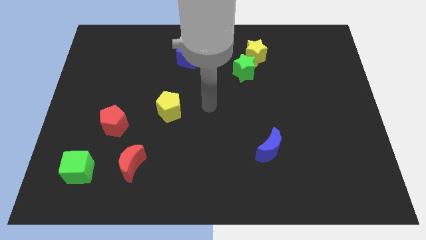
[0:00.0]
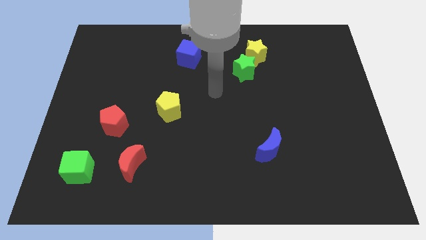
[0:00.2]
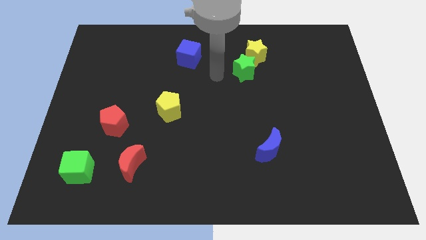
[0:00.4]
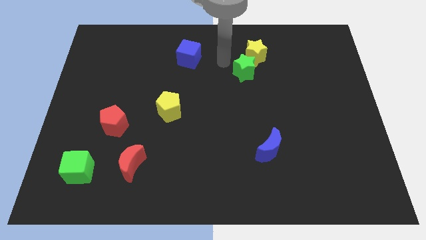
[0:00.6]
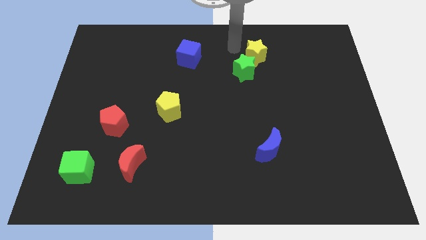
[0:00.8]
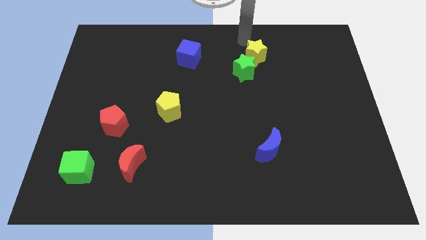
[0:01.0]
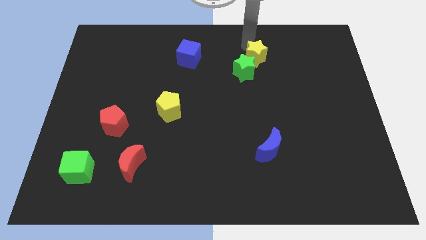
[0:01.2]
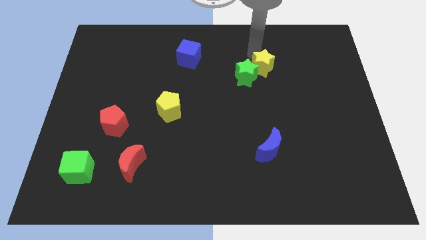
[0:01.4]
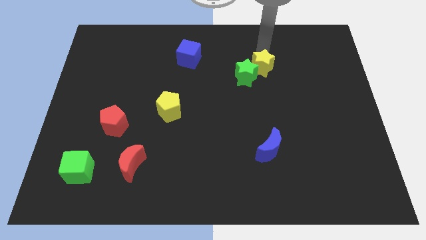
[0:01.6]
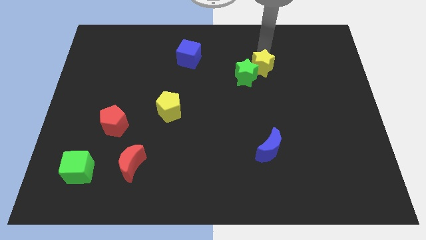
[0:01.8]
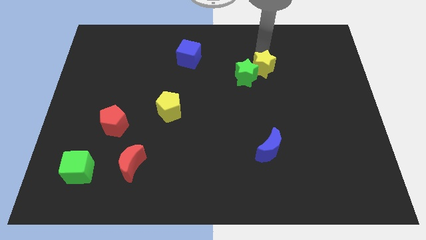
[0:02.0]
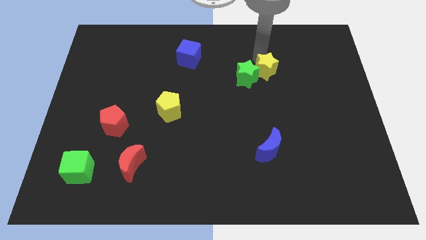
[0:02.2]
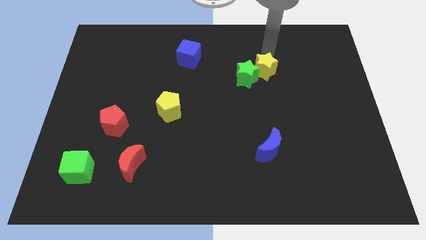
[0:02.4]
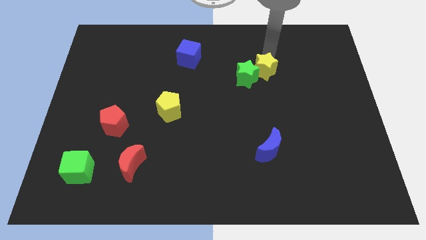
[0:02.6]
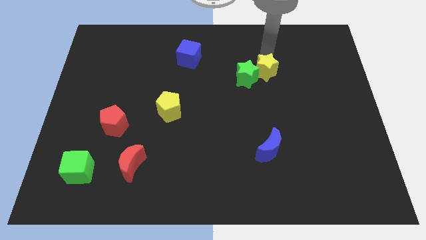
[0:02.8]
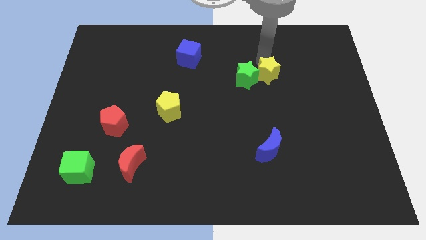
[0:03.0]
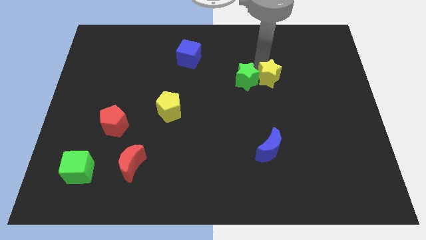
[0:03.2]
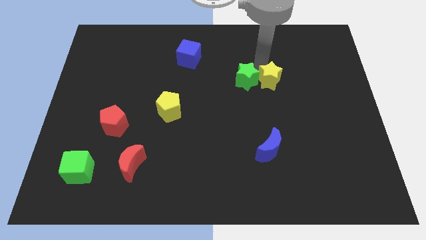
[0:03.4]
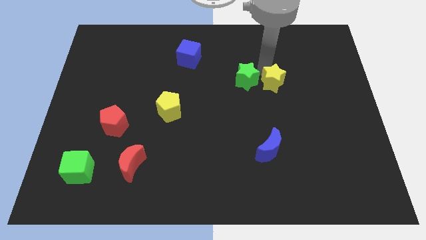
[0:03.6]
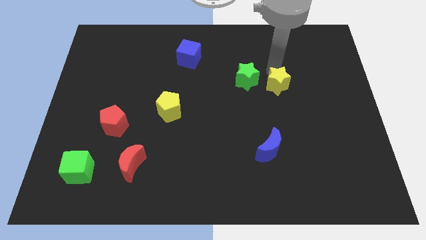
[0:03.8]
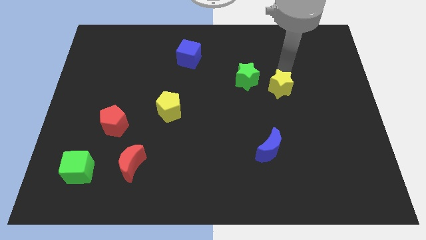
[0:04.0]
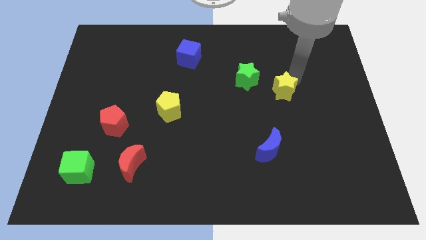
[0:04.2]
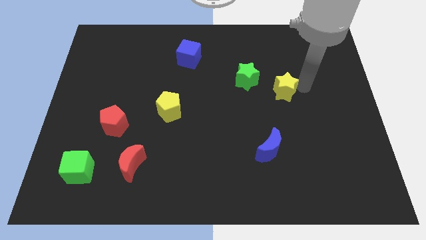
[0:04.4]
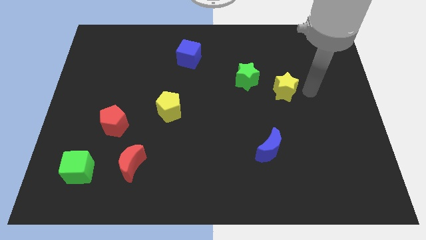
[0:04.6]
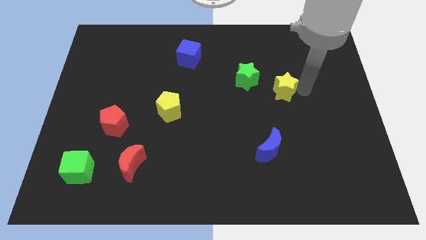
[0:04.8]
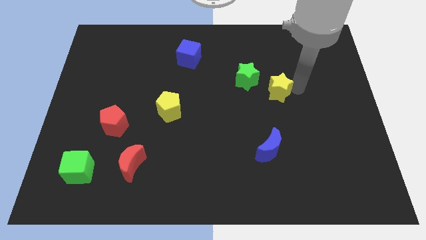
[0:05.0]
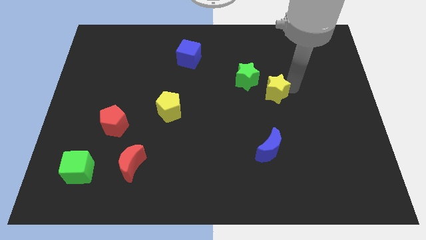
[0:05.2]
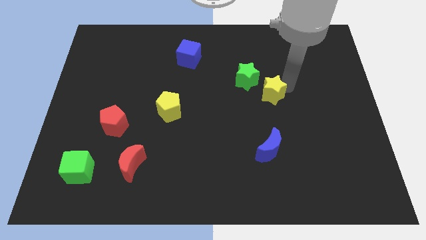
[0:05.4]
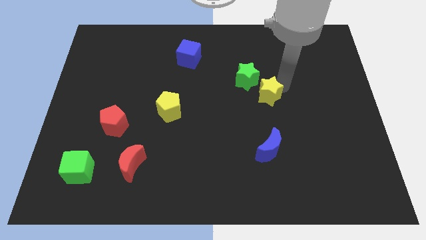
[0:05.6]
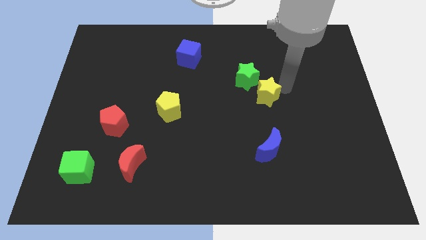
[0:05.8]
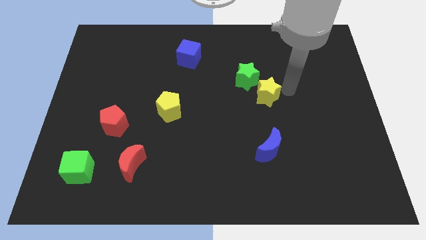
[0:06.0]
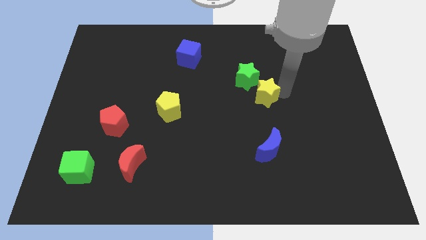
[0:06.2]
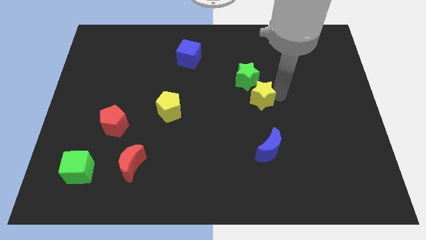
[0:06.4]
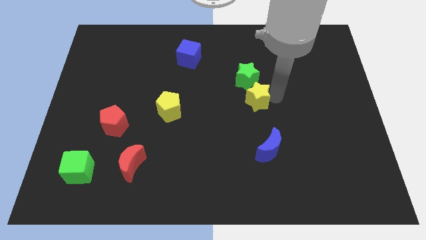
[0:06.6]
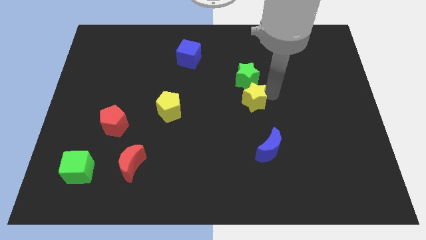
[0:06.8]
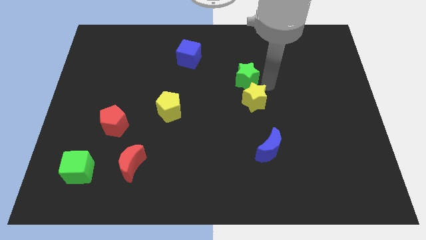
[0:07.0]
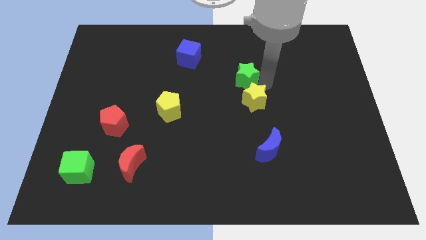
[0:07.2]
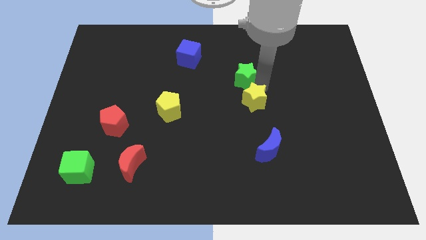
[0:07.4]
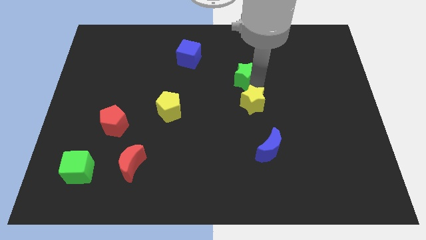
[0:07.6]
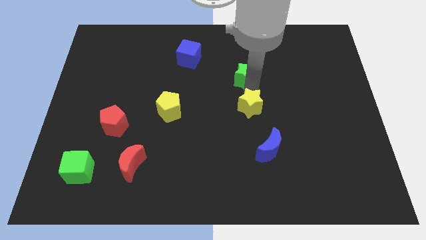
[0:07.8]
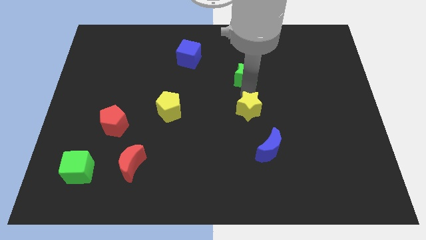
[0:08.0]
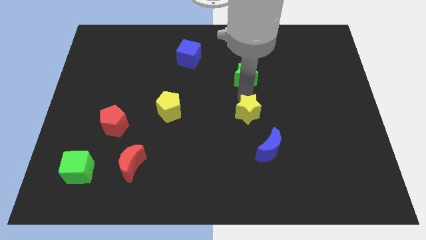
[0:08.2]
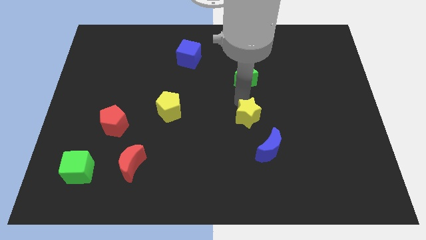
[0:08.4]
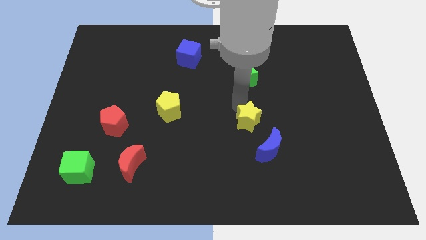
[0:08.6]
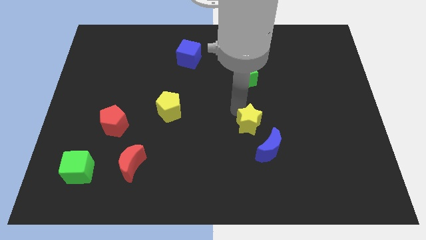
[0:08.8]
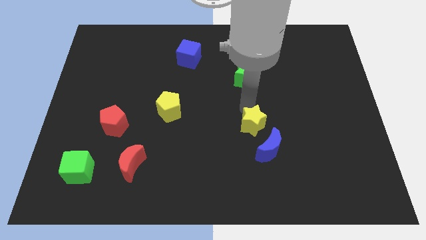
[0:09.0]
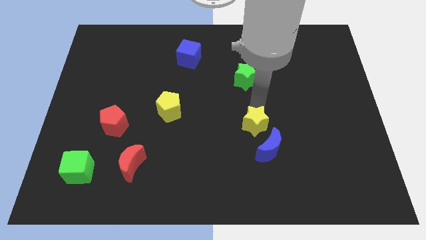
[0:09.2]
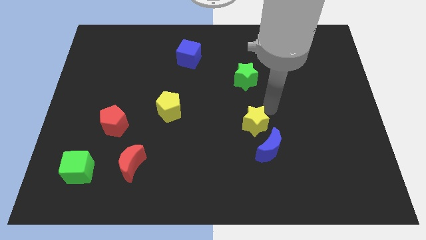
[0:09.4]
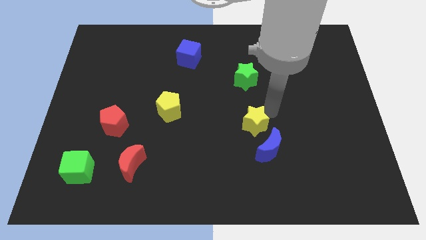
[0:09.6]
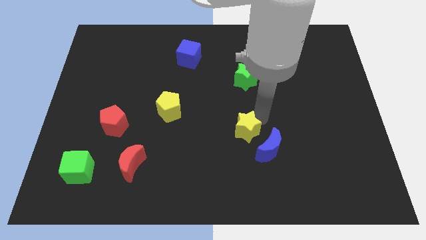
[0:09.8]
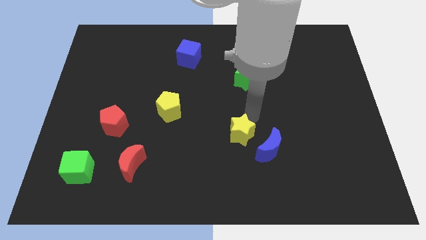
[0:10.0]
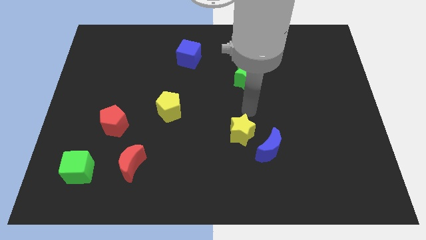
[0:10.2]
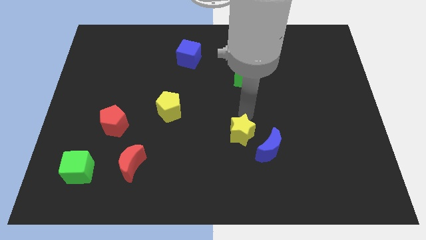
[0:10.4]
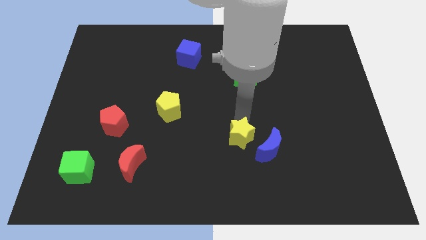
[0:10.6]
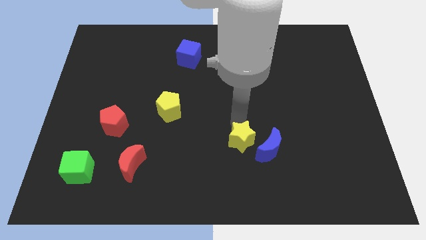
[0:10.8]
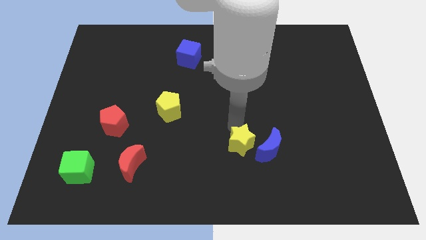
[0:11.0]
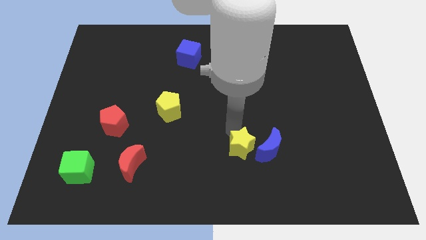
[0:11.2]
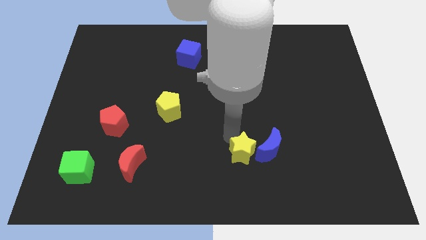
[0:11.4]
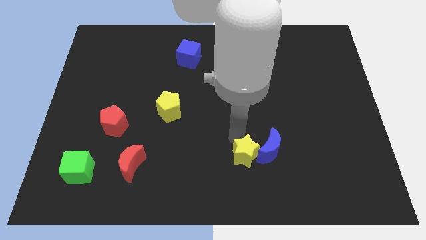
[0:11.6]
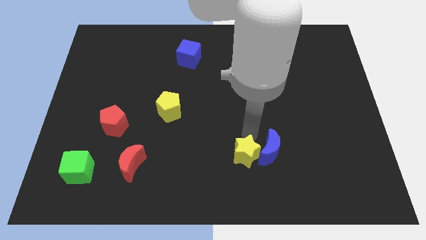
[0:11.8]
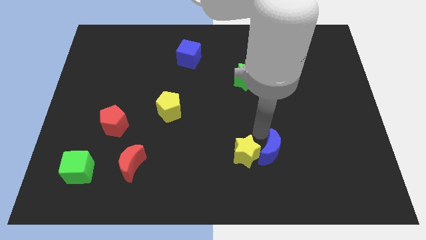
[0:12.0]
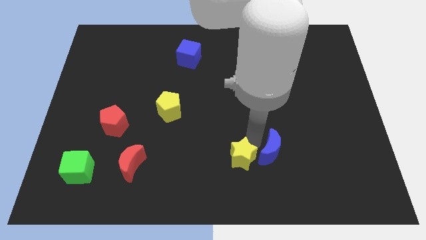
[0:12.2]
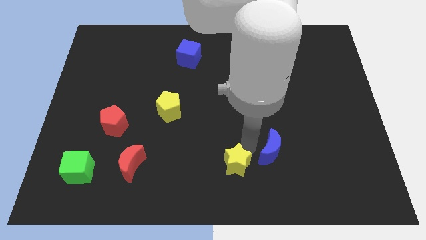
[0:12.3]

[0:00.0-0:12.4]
move the yellow star to the bottom side
